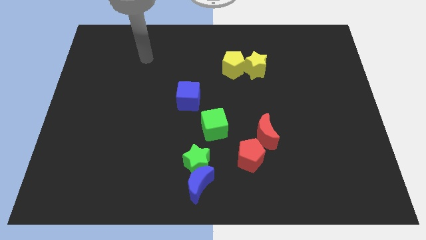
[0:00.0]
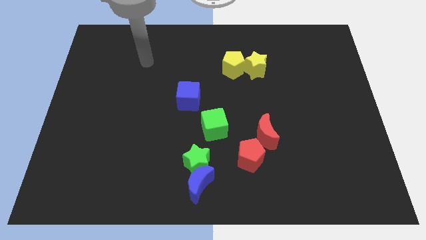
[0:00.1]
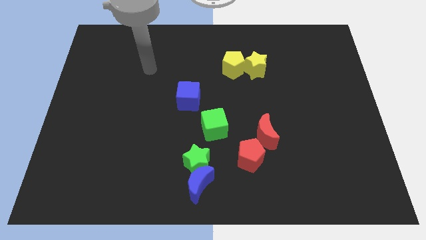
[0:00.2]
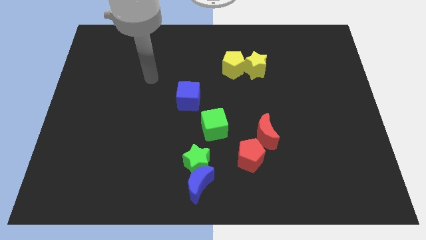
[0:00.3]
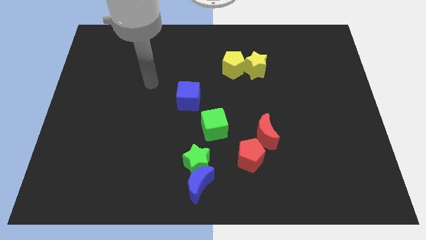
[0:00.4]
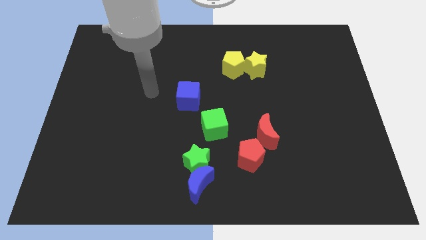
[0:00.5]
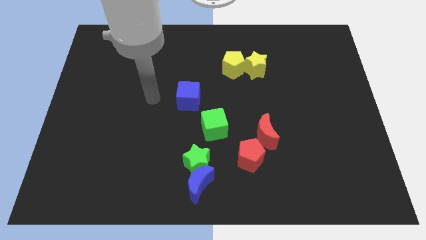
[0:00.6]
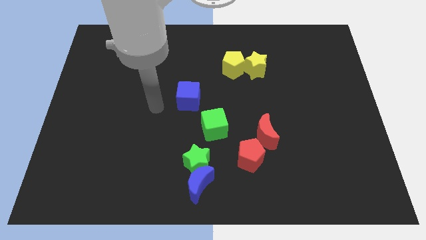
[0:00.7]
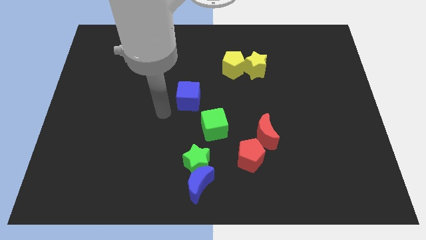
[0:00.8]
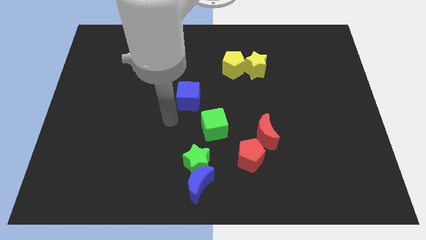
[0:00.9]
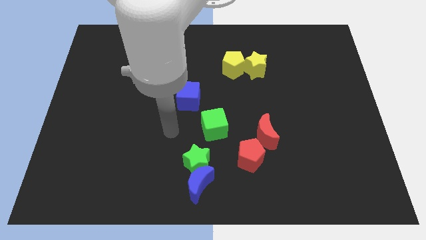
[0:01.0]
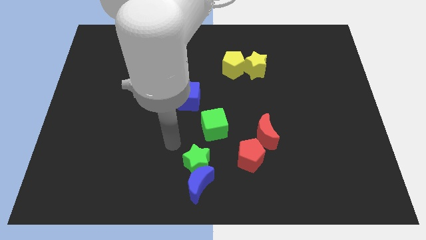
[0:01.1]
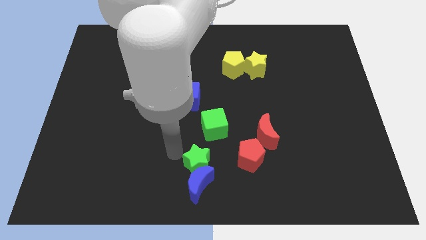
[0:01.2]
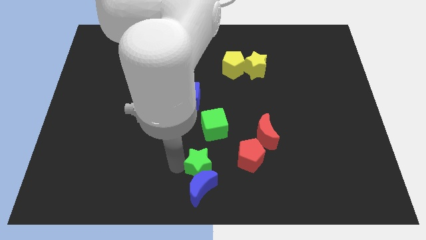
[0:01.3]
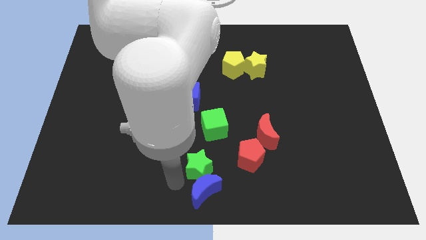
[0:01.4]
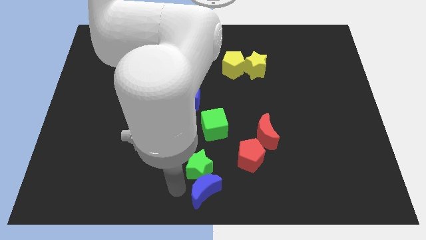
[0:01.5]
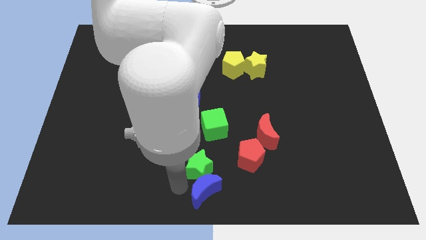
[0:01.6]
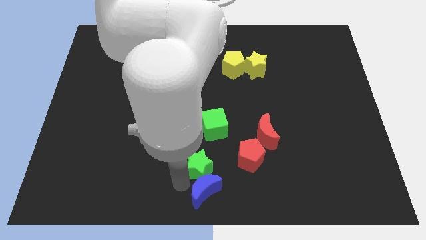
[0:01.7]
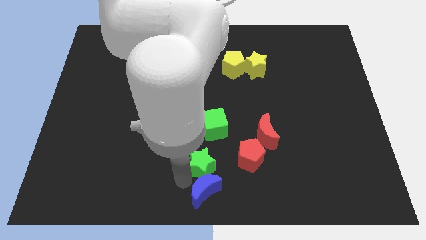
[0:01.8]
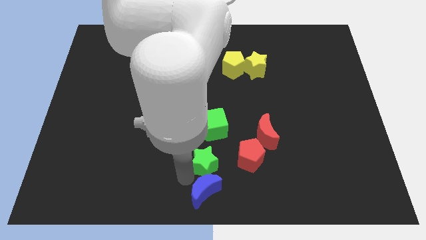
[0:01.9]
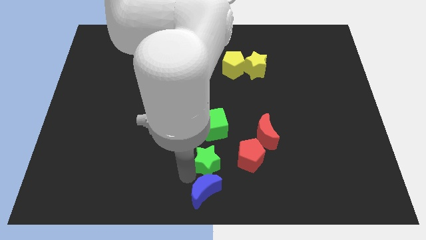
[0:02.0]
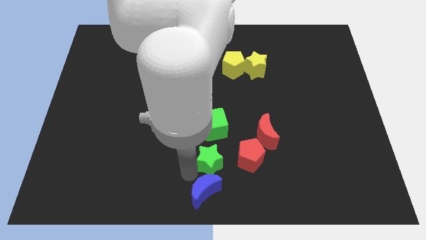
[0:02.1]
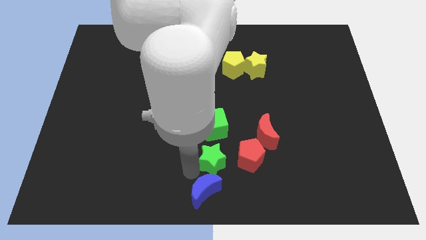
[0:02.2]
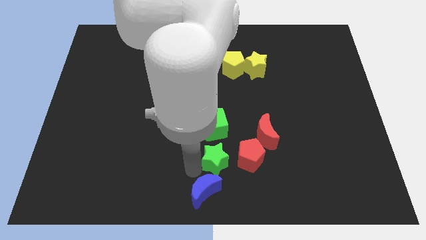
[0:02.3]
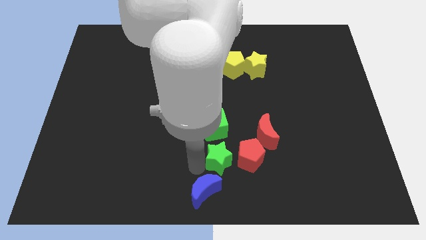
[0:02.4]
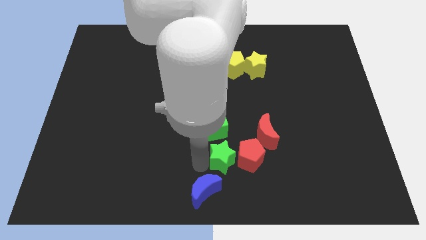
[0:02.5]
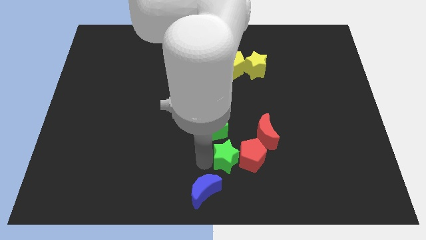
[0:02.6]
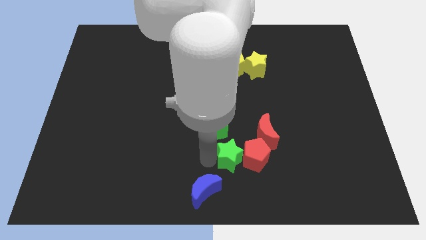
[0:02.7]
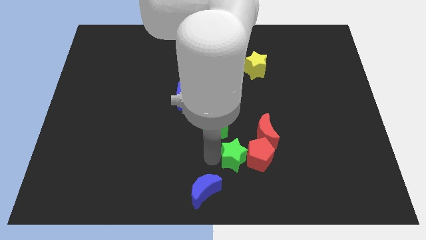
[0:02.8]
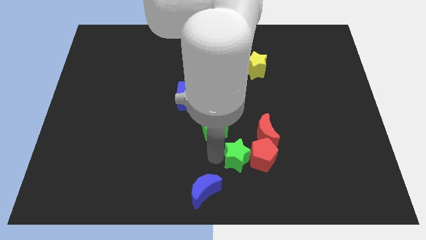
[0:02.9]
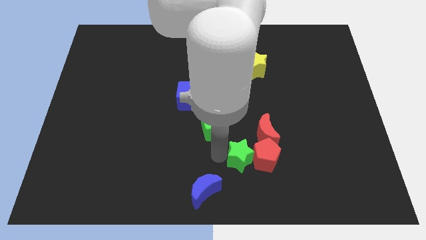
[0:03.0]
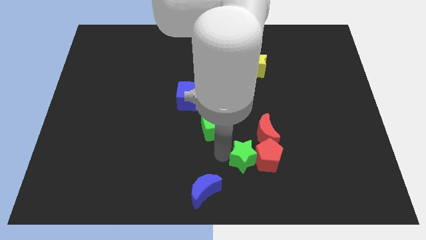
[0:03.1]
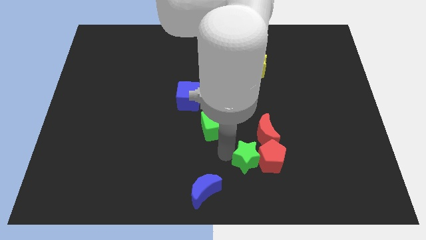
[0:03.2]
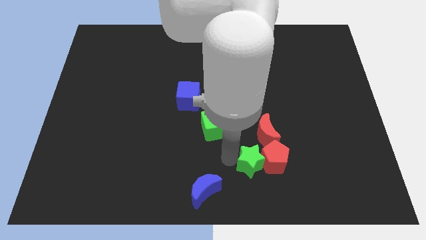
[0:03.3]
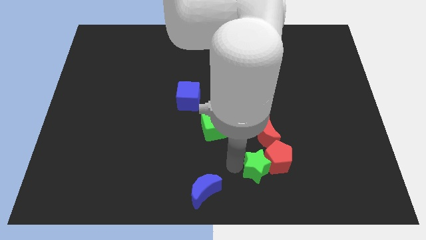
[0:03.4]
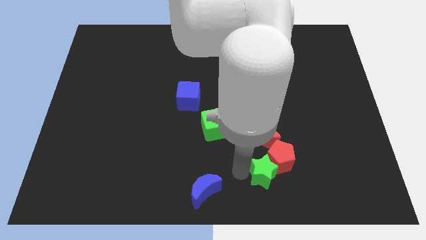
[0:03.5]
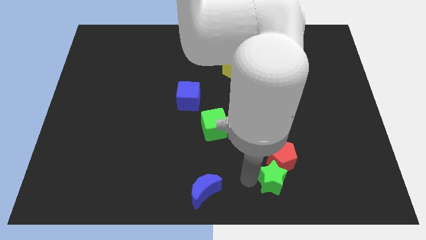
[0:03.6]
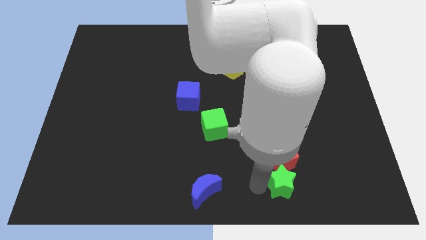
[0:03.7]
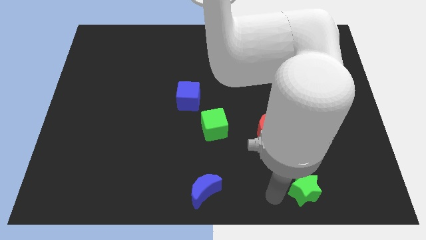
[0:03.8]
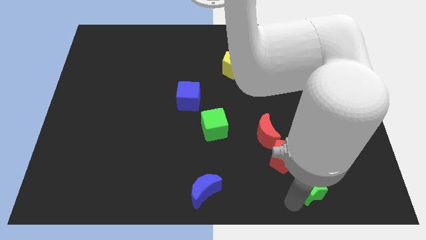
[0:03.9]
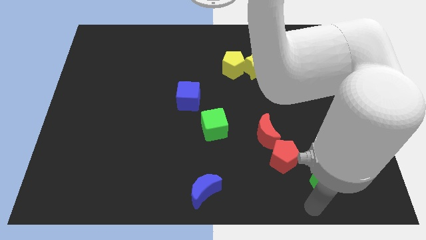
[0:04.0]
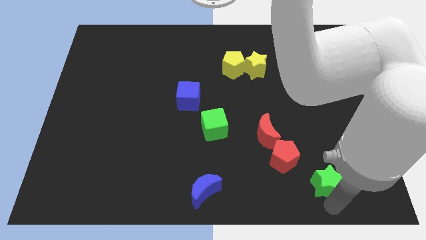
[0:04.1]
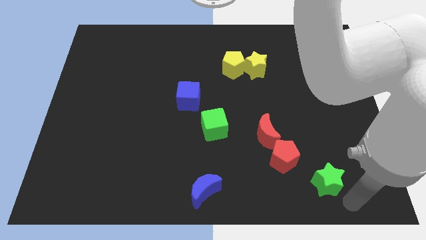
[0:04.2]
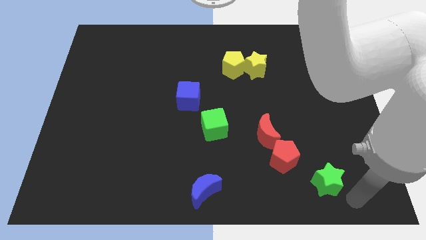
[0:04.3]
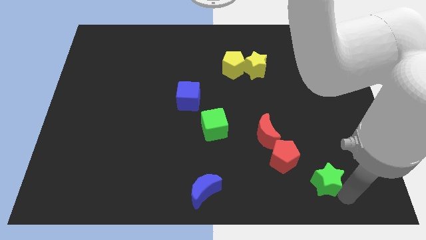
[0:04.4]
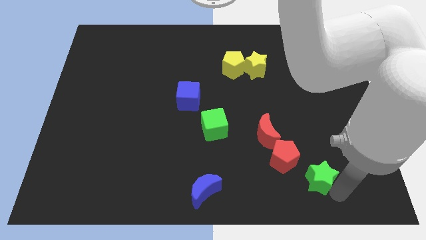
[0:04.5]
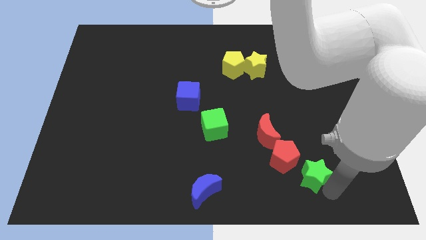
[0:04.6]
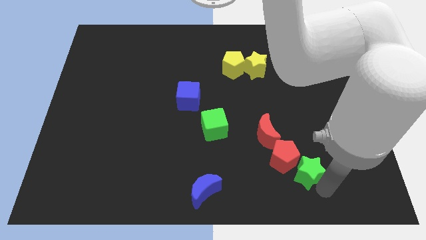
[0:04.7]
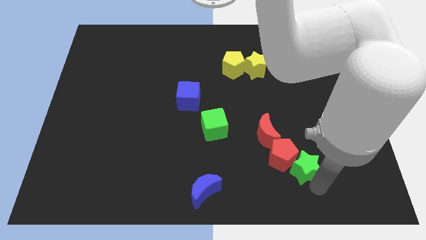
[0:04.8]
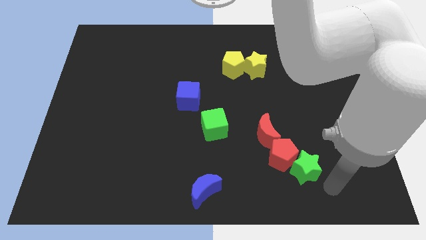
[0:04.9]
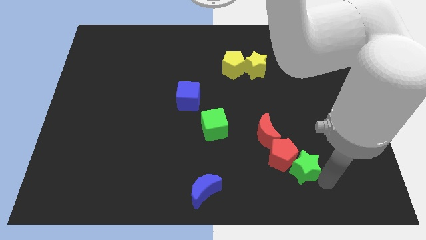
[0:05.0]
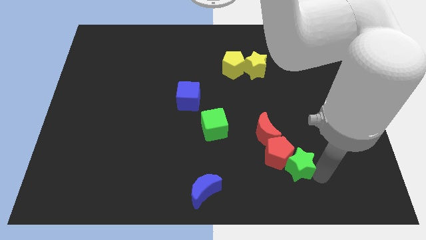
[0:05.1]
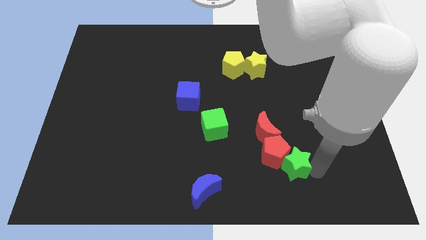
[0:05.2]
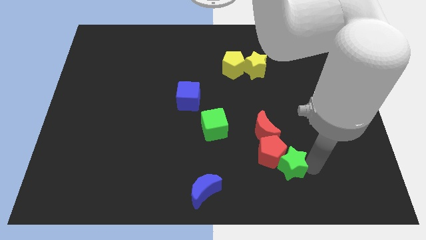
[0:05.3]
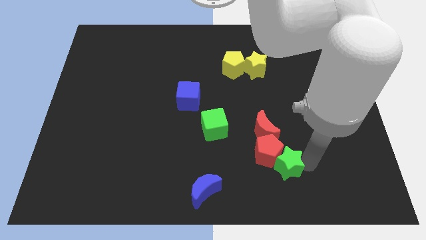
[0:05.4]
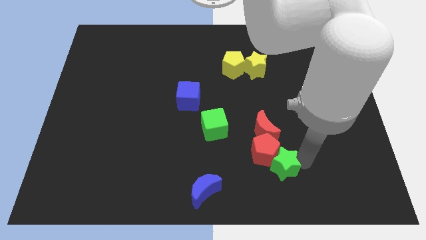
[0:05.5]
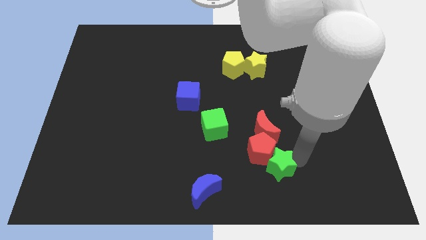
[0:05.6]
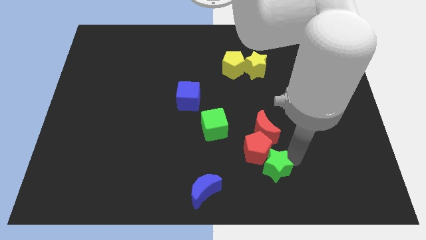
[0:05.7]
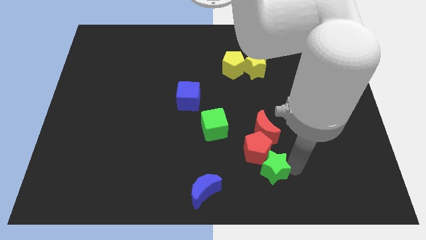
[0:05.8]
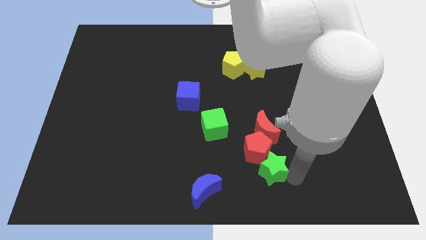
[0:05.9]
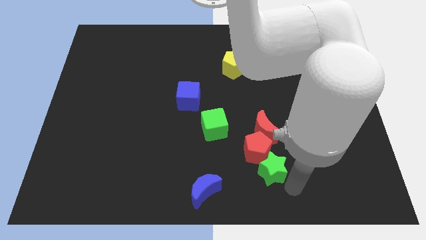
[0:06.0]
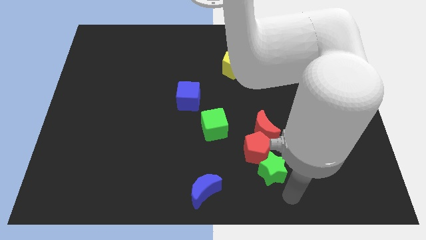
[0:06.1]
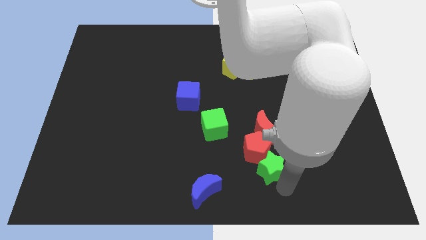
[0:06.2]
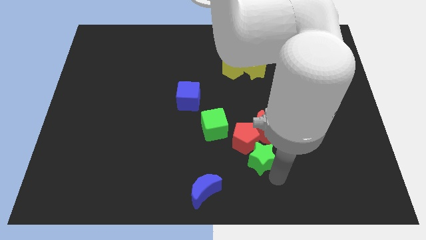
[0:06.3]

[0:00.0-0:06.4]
push the green star up and right diagonally a little bit

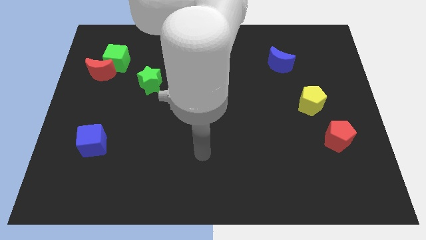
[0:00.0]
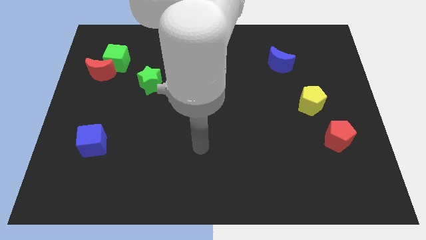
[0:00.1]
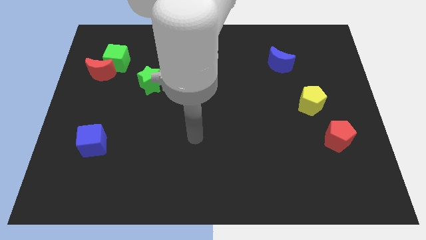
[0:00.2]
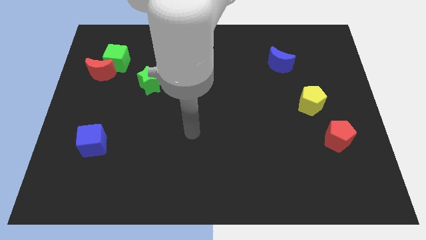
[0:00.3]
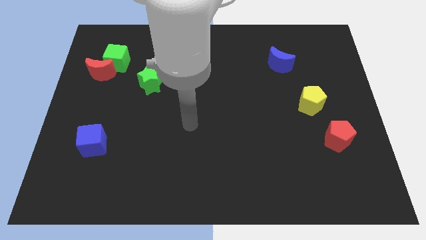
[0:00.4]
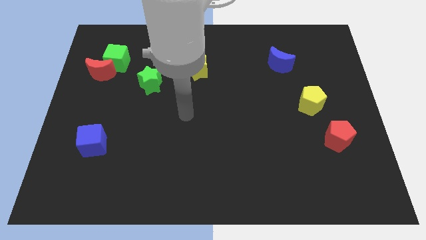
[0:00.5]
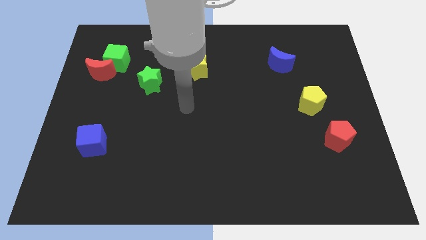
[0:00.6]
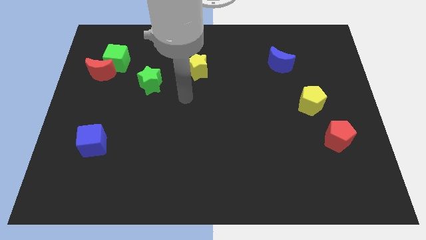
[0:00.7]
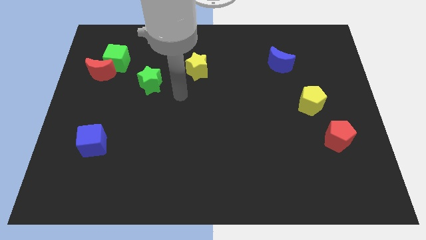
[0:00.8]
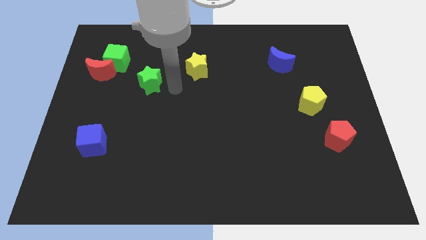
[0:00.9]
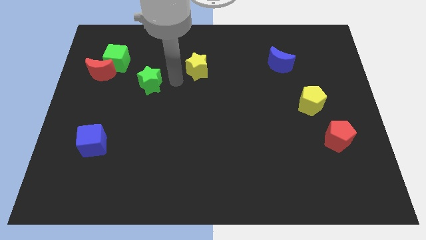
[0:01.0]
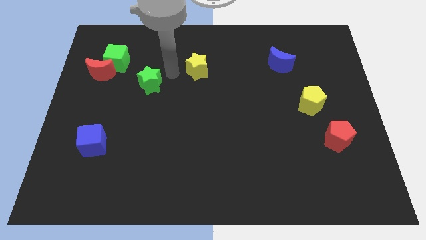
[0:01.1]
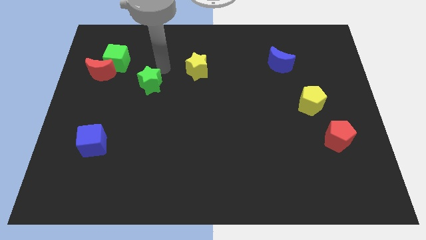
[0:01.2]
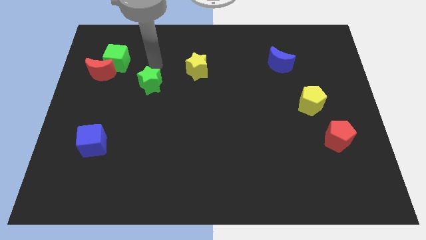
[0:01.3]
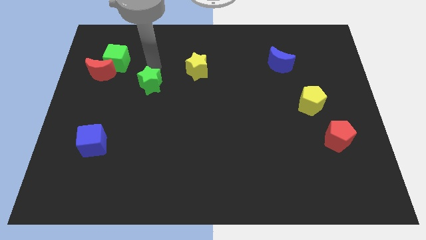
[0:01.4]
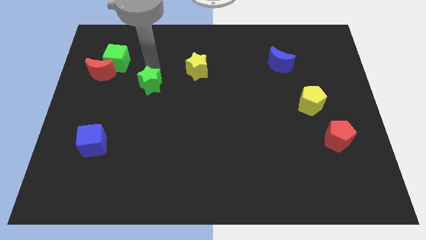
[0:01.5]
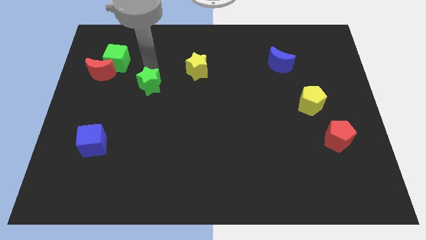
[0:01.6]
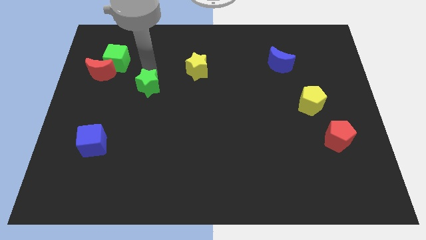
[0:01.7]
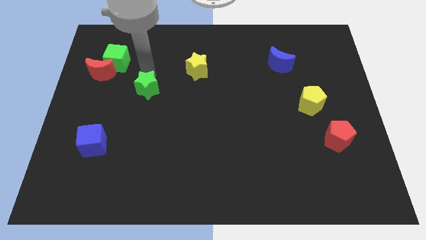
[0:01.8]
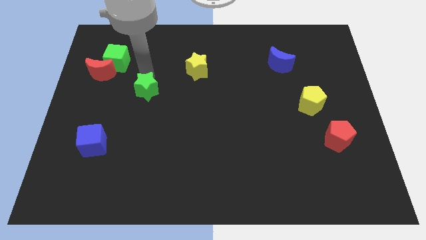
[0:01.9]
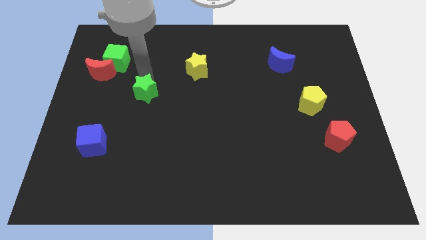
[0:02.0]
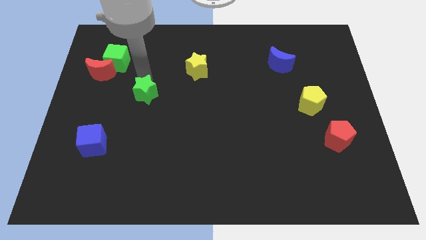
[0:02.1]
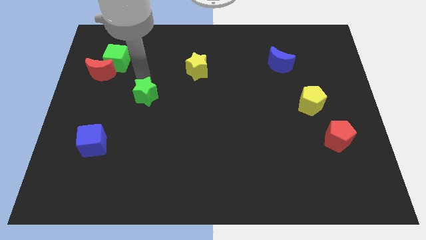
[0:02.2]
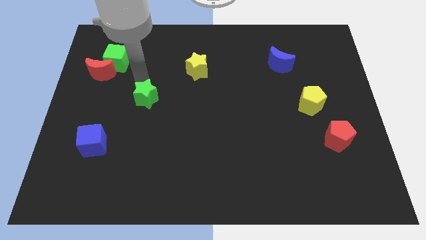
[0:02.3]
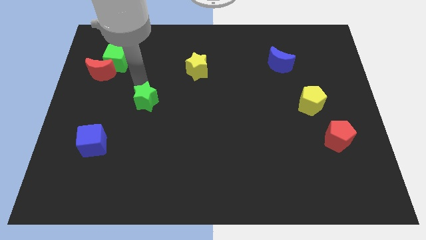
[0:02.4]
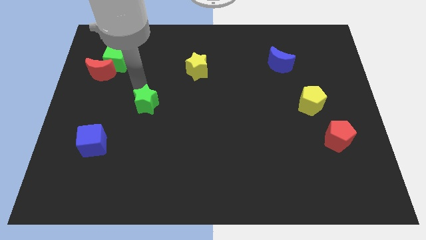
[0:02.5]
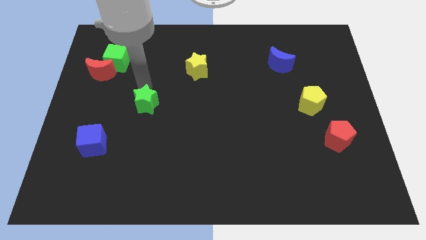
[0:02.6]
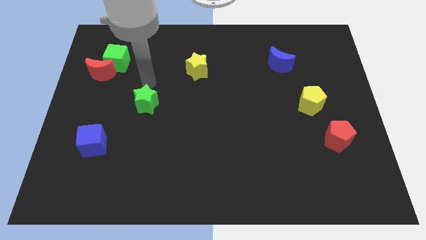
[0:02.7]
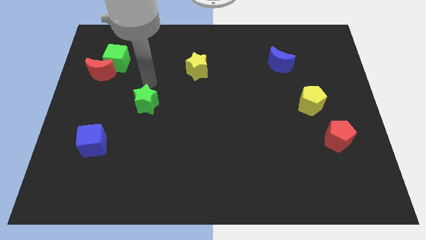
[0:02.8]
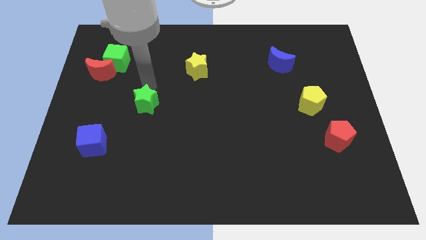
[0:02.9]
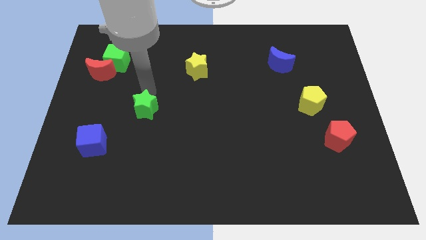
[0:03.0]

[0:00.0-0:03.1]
move the green star a little bit down
